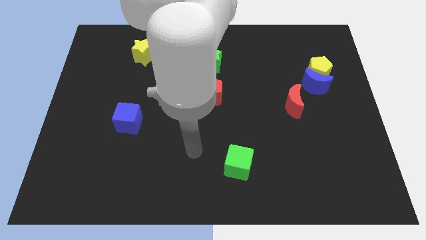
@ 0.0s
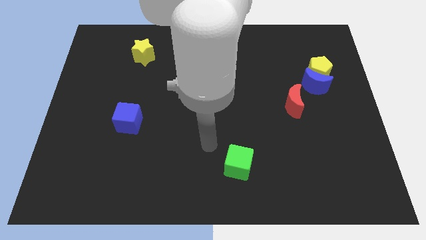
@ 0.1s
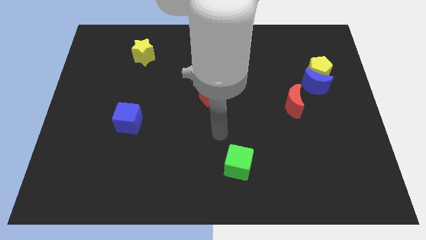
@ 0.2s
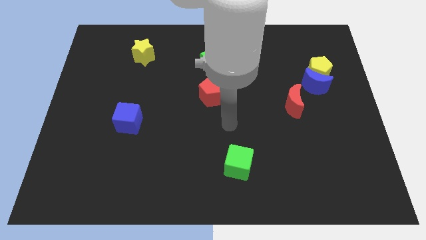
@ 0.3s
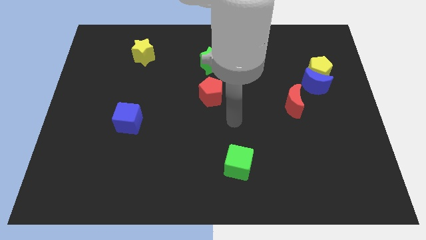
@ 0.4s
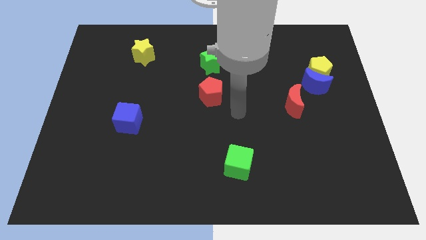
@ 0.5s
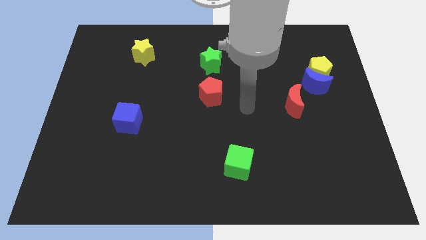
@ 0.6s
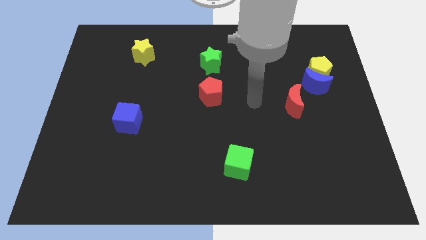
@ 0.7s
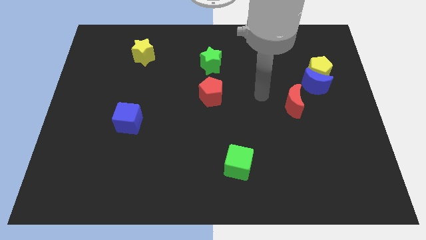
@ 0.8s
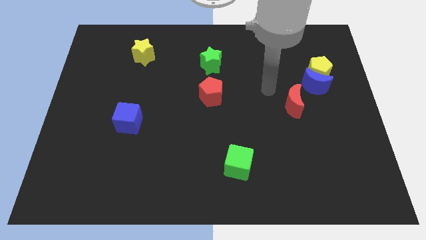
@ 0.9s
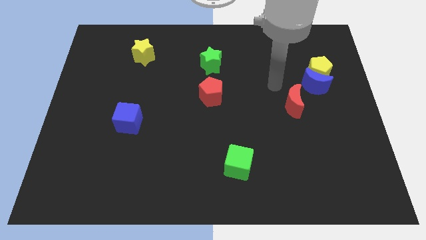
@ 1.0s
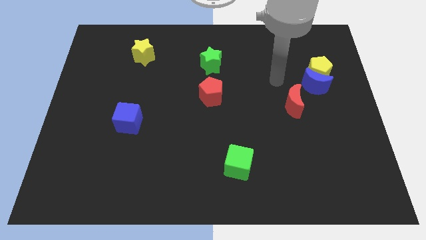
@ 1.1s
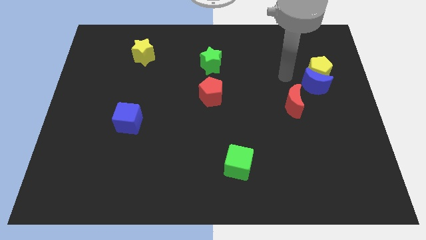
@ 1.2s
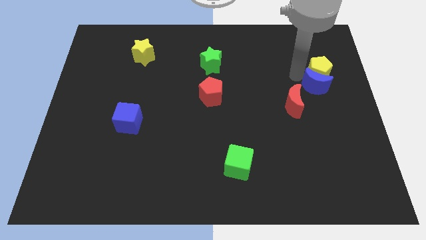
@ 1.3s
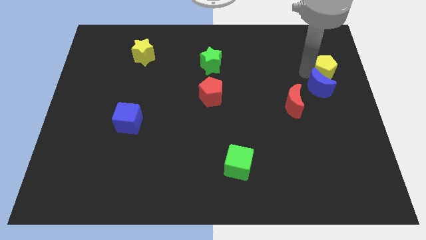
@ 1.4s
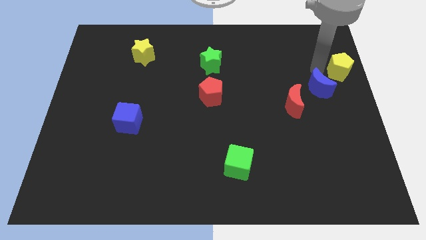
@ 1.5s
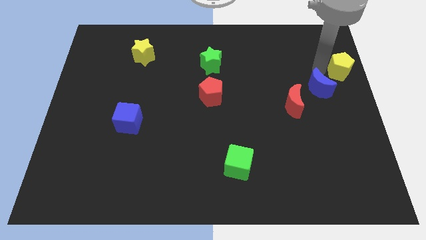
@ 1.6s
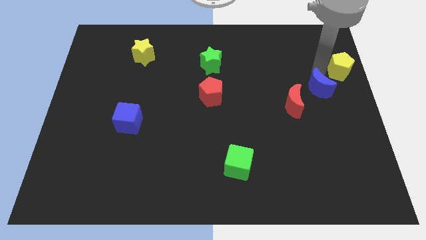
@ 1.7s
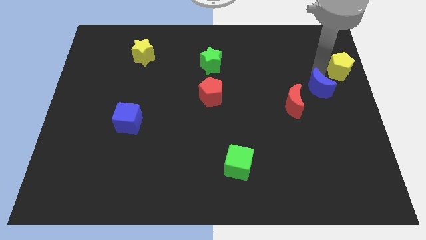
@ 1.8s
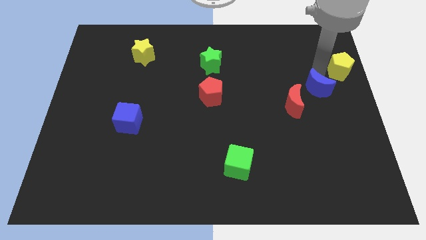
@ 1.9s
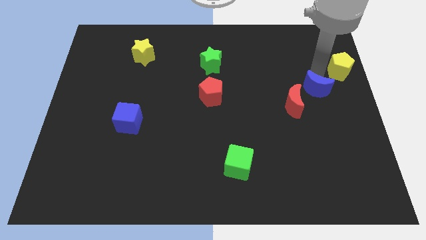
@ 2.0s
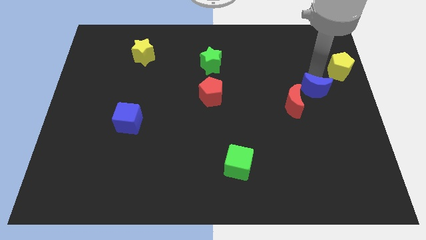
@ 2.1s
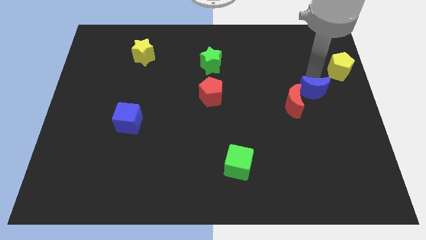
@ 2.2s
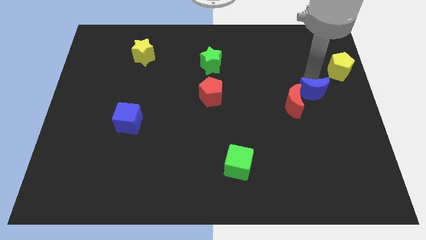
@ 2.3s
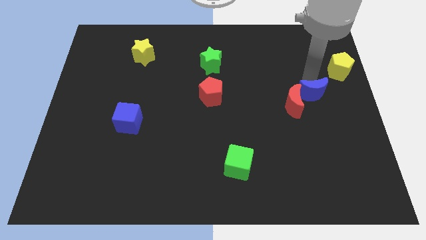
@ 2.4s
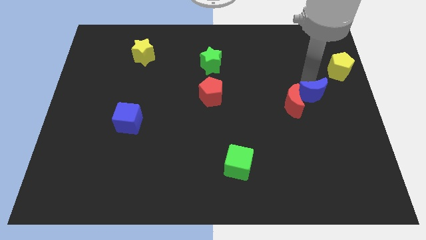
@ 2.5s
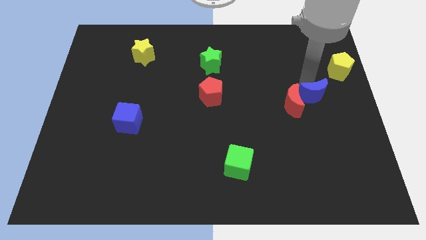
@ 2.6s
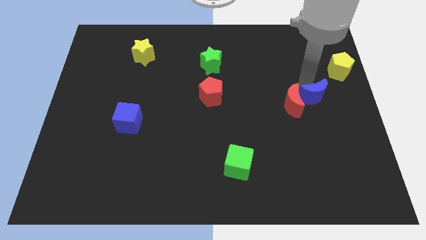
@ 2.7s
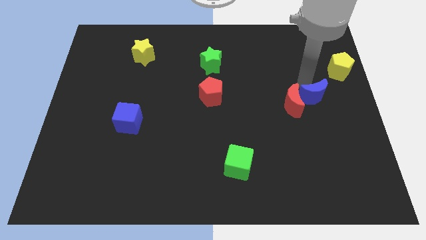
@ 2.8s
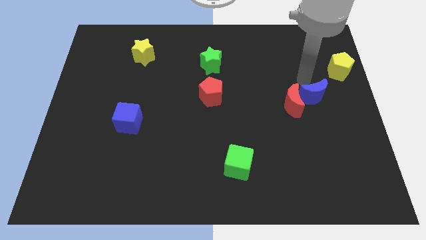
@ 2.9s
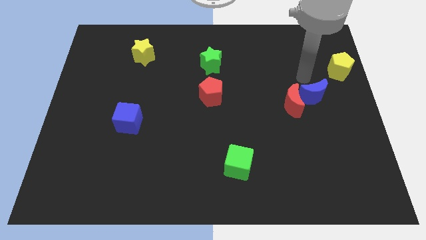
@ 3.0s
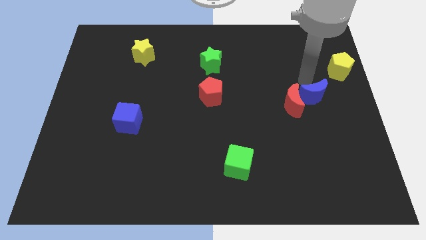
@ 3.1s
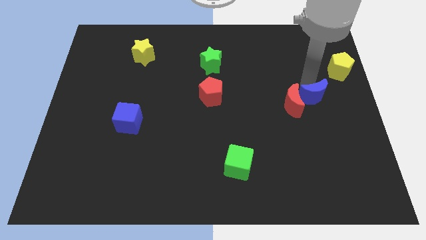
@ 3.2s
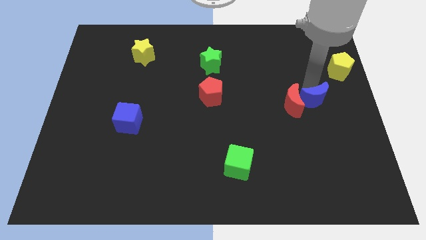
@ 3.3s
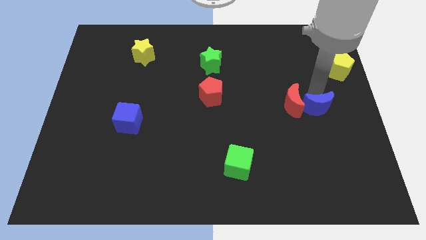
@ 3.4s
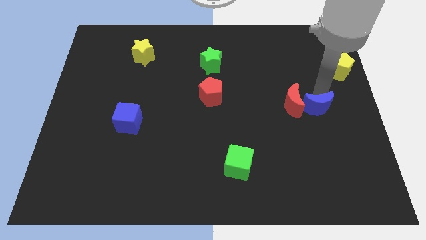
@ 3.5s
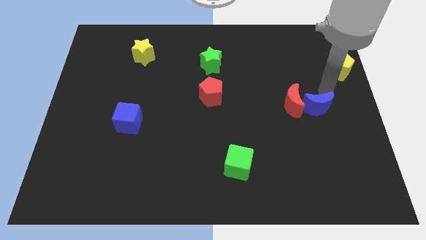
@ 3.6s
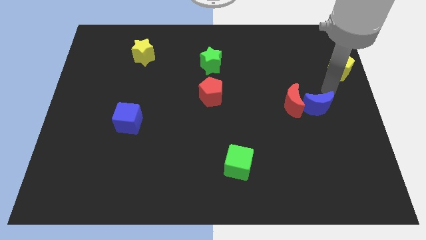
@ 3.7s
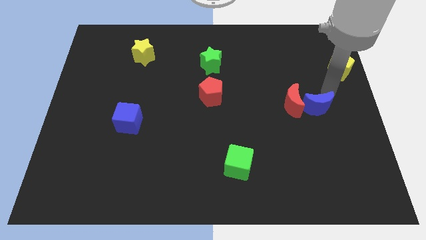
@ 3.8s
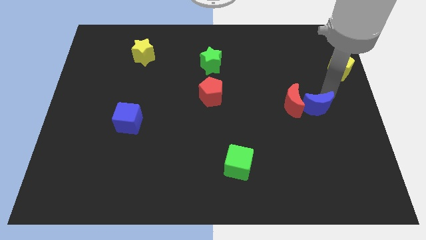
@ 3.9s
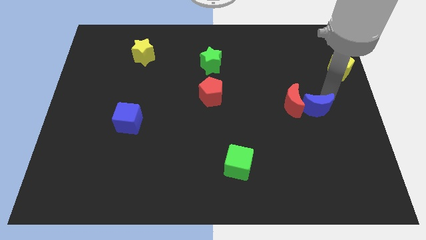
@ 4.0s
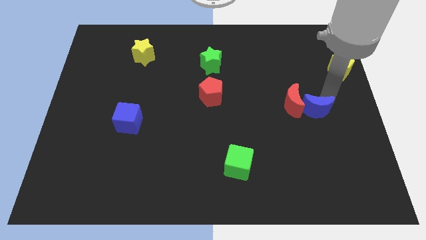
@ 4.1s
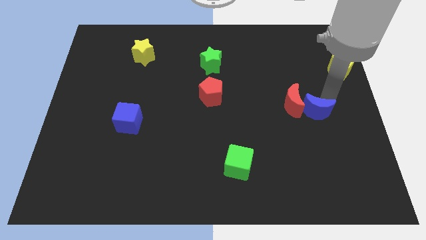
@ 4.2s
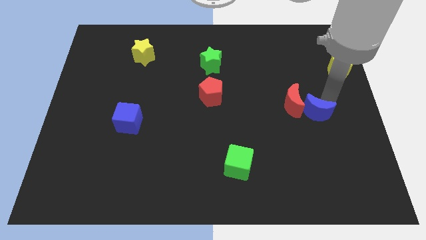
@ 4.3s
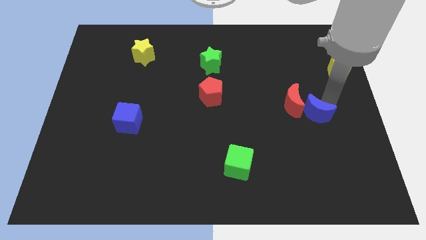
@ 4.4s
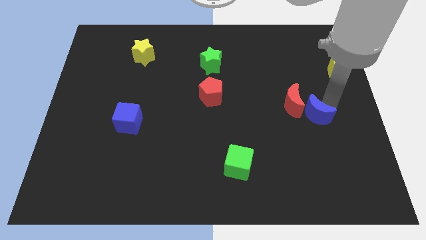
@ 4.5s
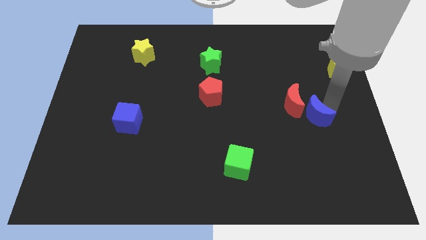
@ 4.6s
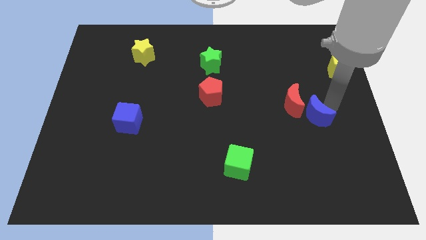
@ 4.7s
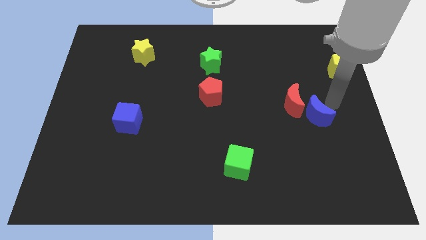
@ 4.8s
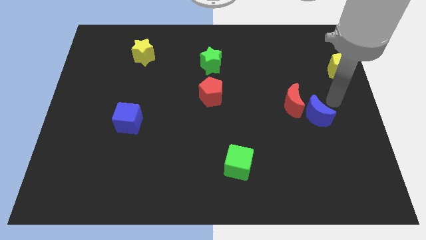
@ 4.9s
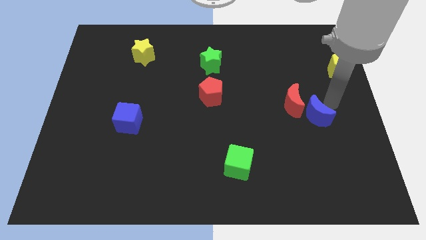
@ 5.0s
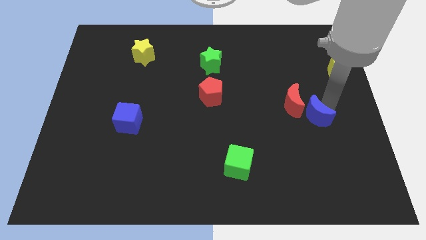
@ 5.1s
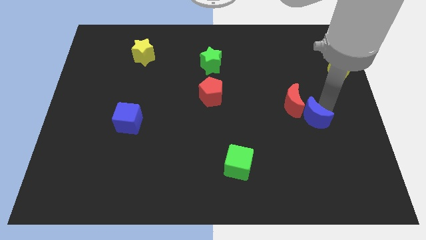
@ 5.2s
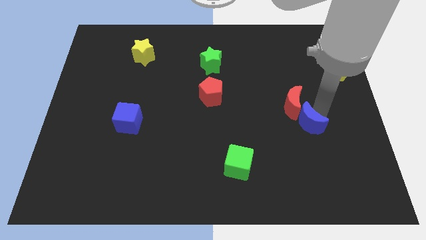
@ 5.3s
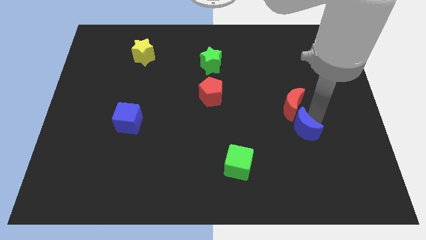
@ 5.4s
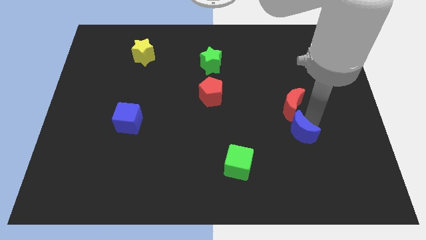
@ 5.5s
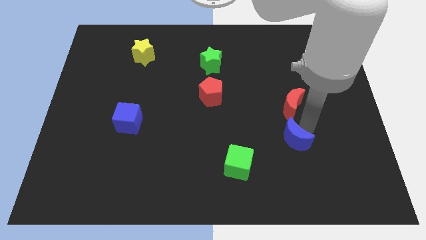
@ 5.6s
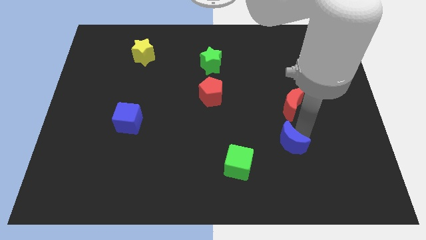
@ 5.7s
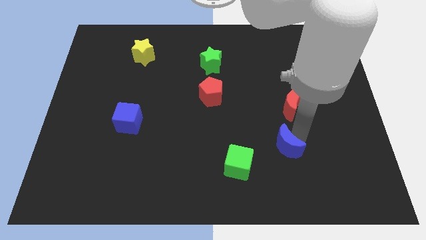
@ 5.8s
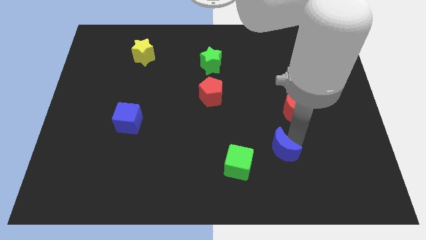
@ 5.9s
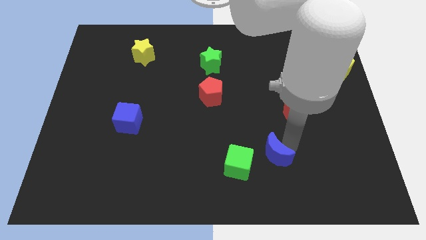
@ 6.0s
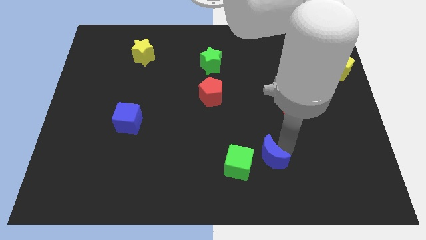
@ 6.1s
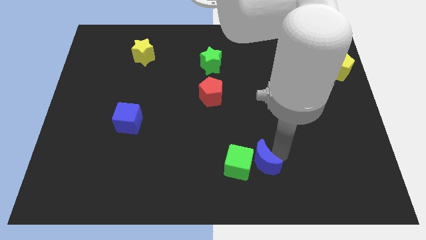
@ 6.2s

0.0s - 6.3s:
put the blue moon close to the green cube

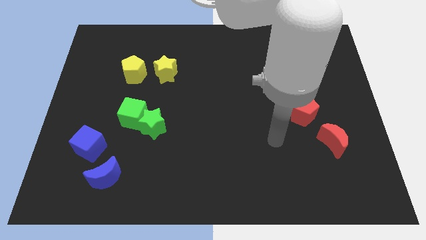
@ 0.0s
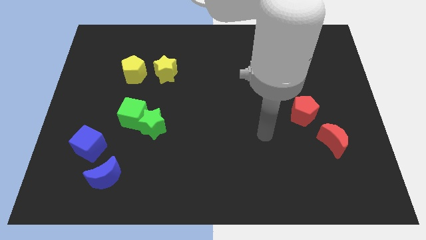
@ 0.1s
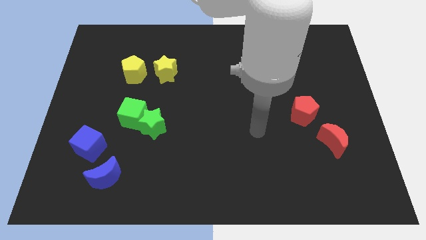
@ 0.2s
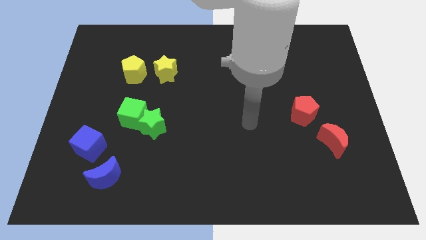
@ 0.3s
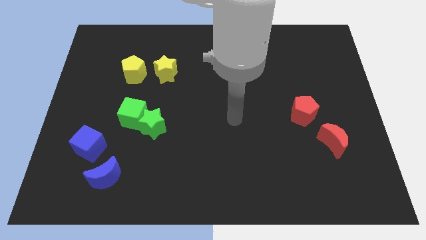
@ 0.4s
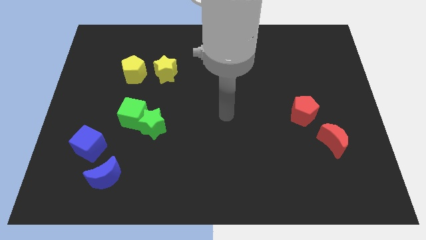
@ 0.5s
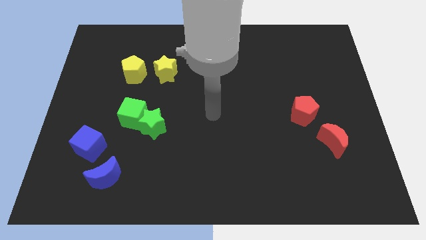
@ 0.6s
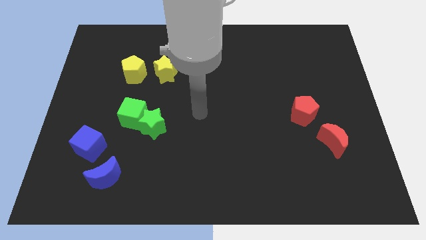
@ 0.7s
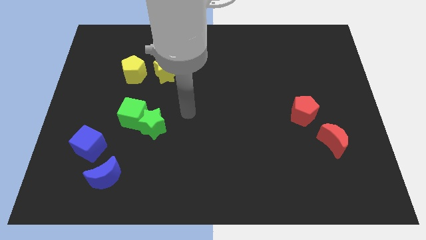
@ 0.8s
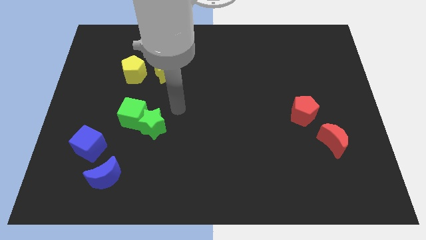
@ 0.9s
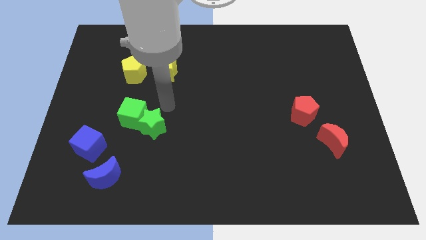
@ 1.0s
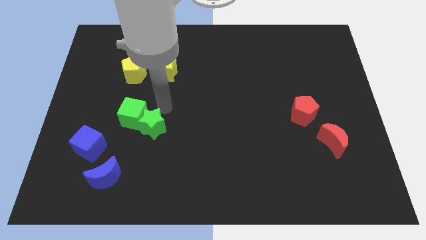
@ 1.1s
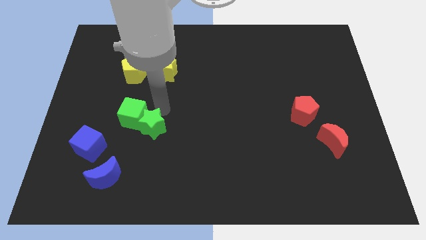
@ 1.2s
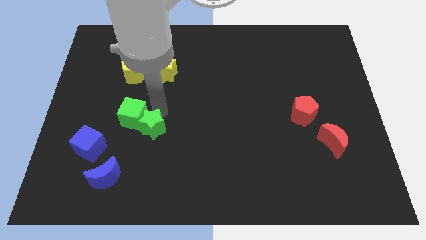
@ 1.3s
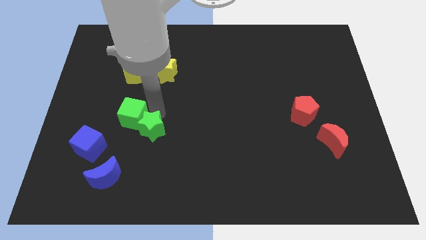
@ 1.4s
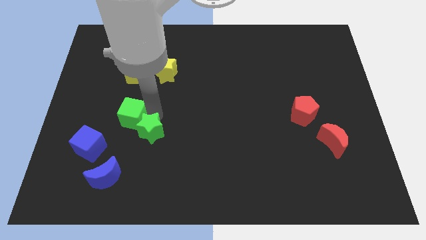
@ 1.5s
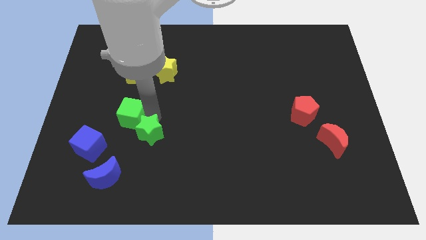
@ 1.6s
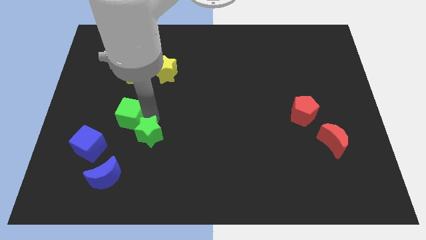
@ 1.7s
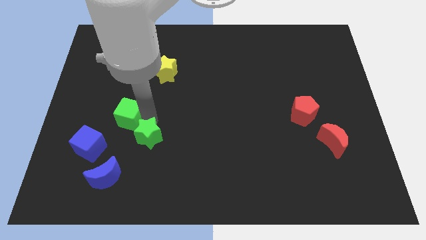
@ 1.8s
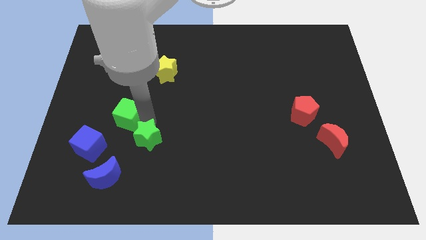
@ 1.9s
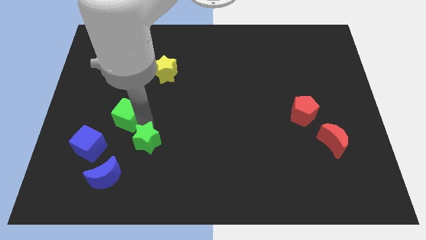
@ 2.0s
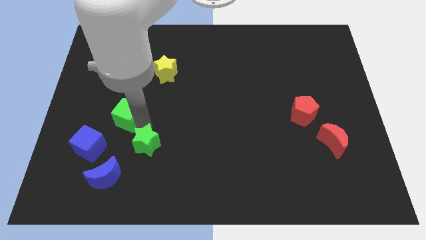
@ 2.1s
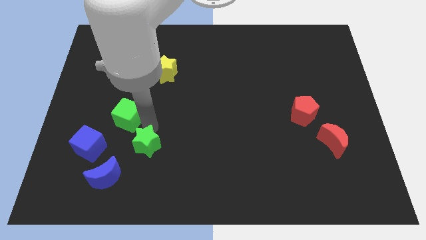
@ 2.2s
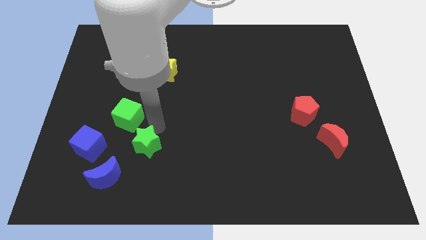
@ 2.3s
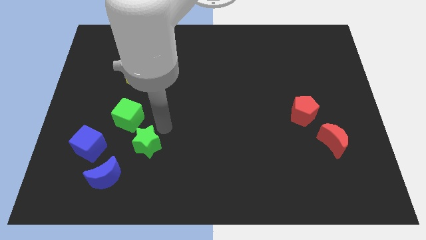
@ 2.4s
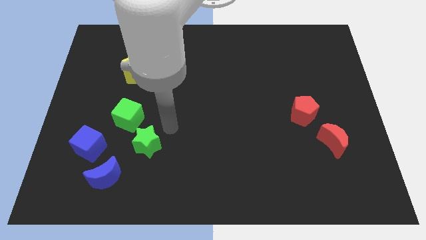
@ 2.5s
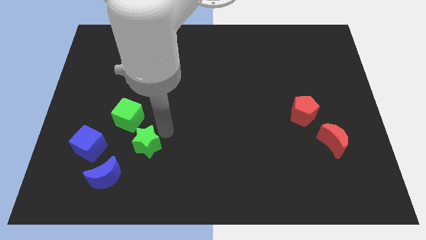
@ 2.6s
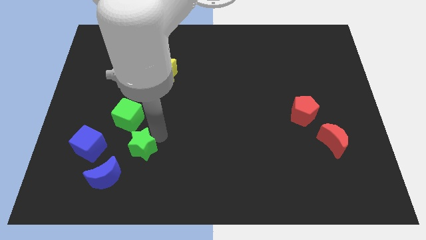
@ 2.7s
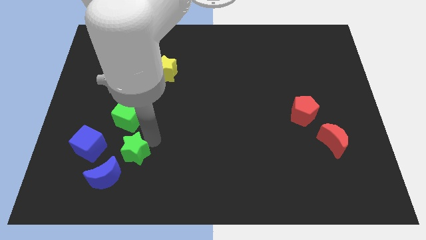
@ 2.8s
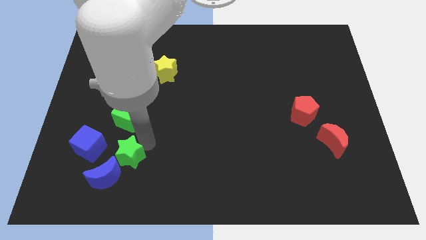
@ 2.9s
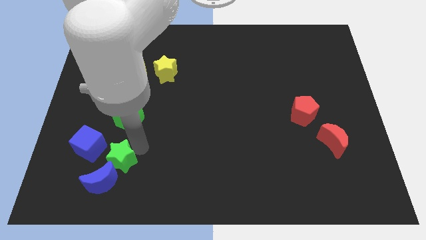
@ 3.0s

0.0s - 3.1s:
push the green star towards the blue moon
